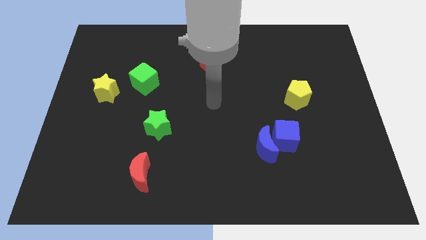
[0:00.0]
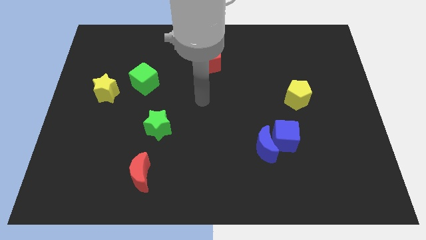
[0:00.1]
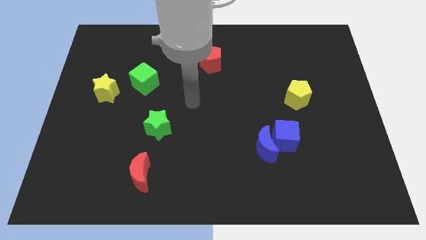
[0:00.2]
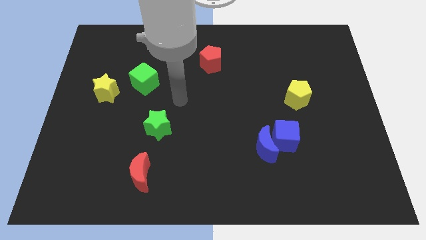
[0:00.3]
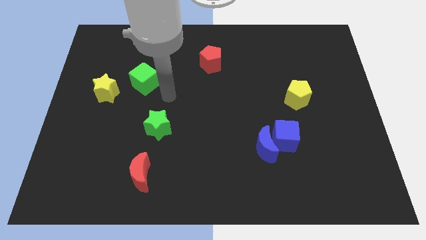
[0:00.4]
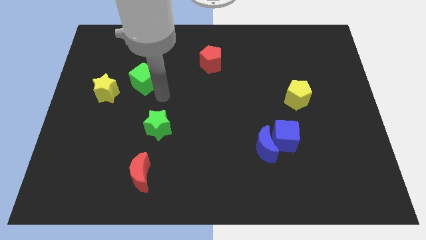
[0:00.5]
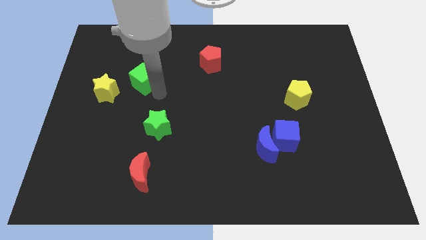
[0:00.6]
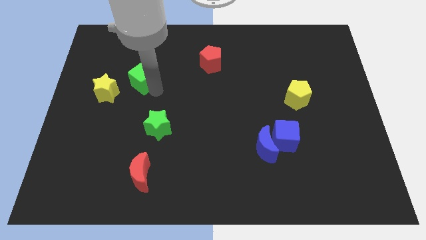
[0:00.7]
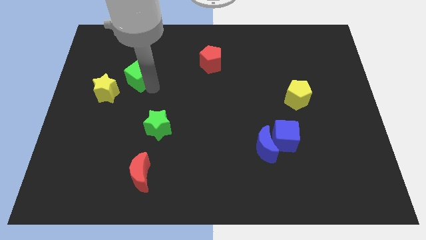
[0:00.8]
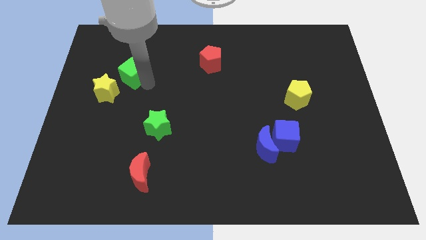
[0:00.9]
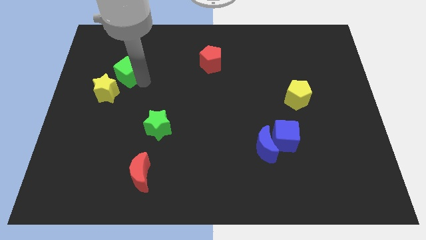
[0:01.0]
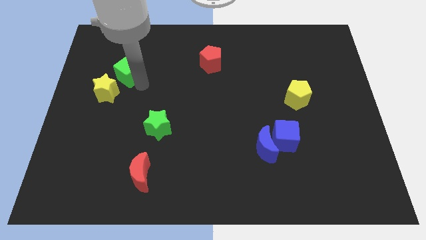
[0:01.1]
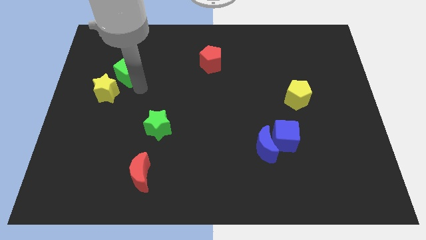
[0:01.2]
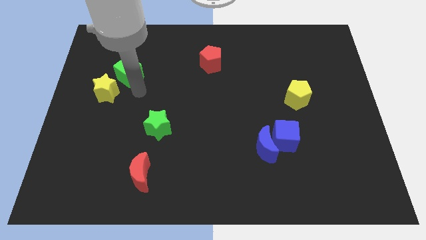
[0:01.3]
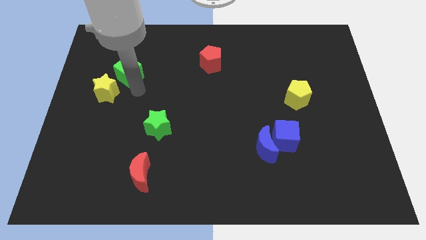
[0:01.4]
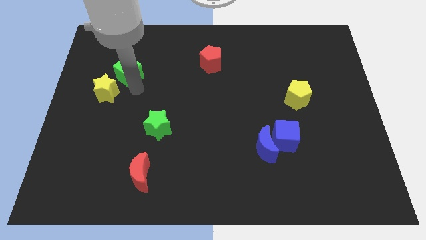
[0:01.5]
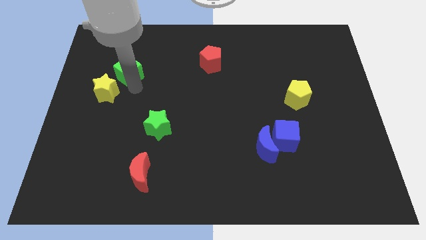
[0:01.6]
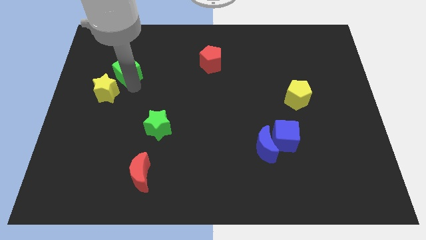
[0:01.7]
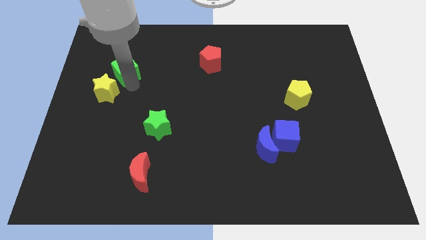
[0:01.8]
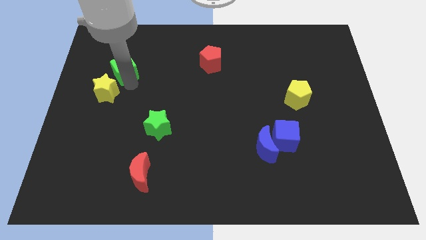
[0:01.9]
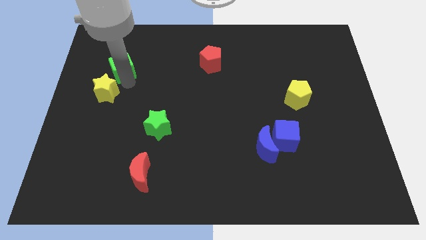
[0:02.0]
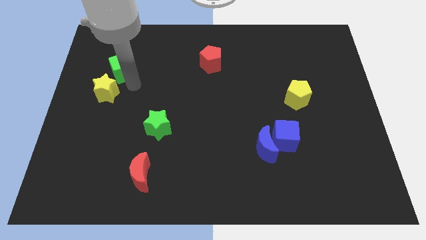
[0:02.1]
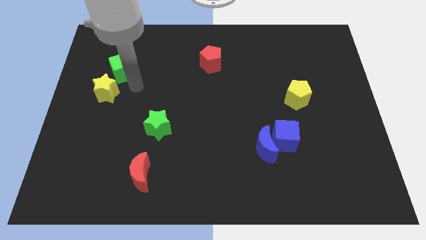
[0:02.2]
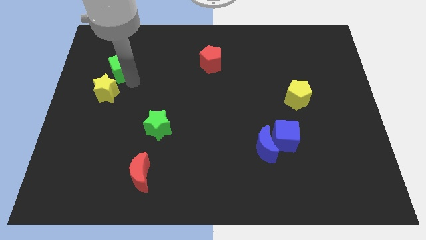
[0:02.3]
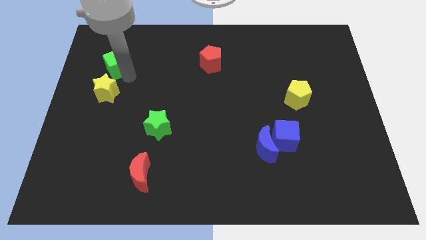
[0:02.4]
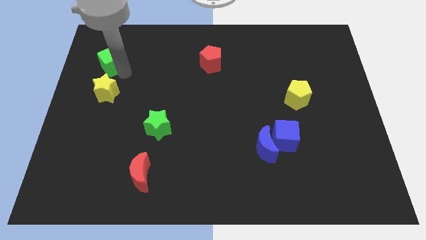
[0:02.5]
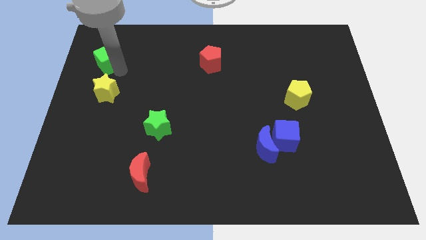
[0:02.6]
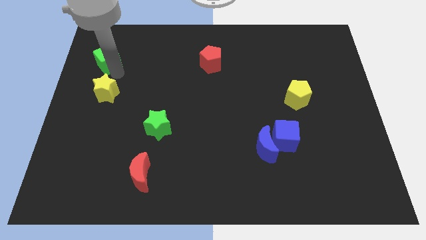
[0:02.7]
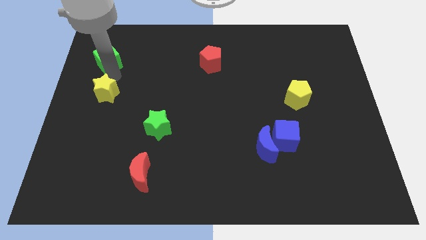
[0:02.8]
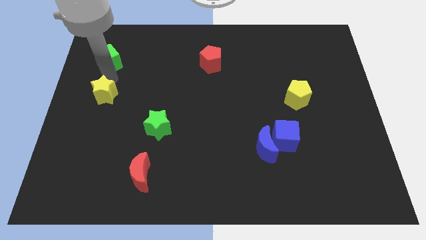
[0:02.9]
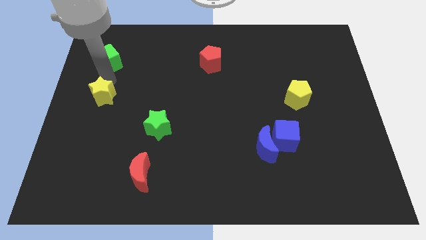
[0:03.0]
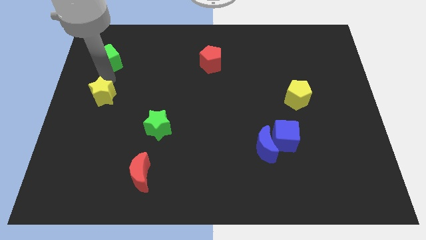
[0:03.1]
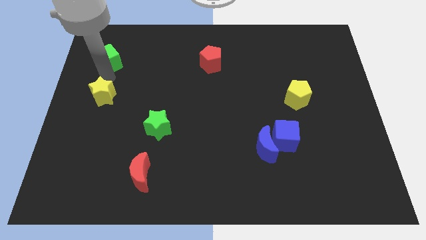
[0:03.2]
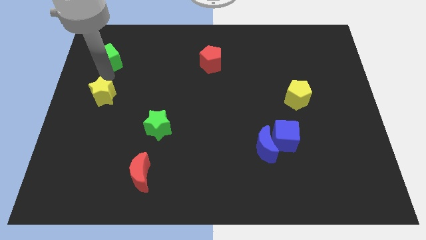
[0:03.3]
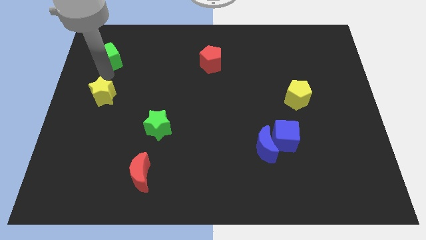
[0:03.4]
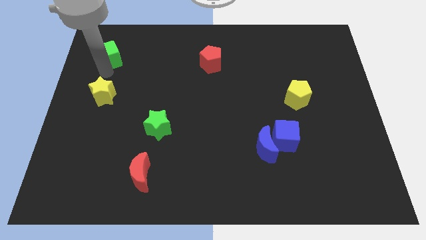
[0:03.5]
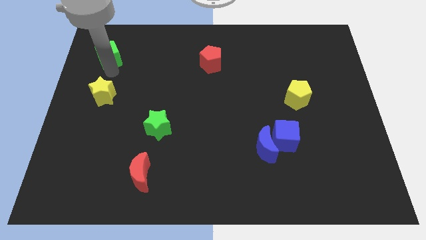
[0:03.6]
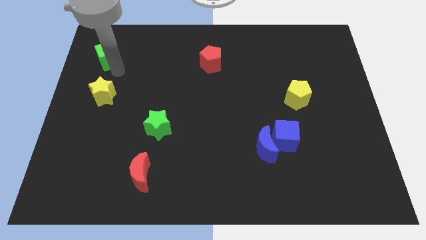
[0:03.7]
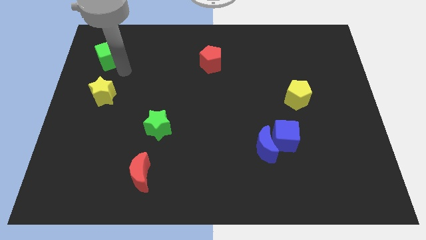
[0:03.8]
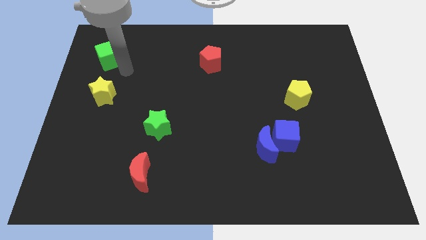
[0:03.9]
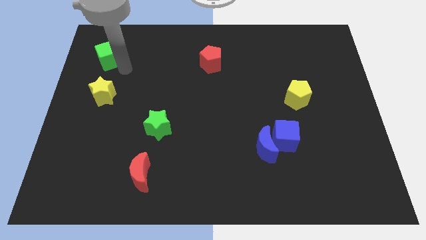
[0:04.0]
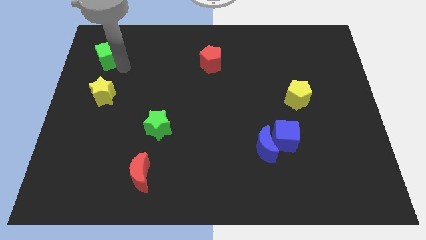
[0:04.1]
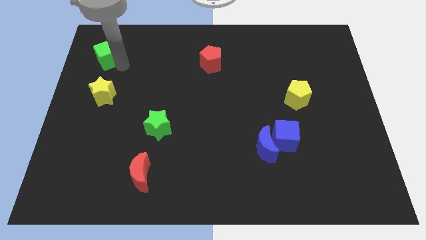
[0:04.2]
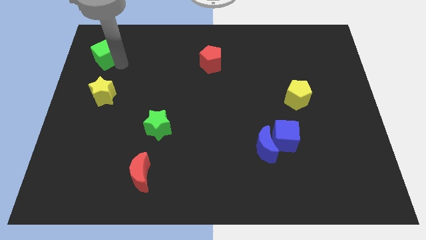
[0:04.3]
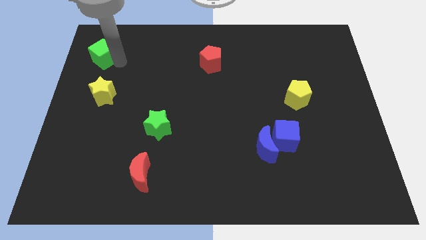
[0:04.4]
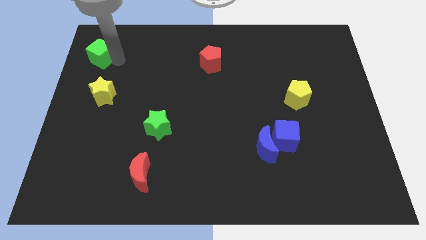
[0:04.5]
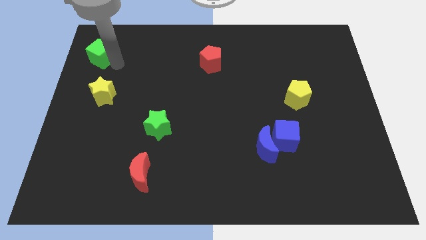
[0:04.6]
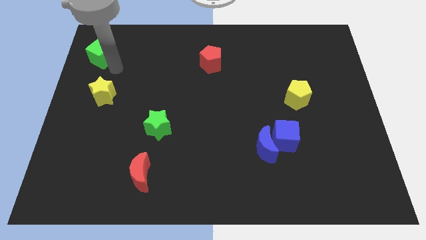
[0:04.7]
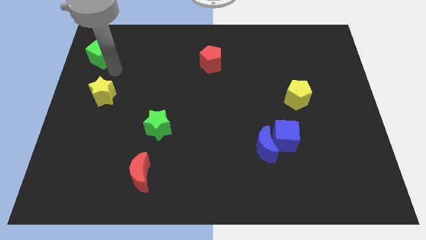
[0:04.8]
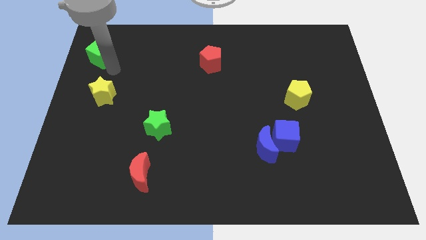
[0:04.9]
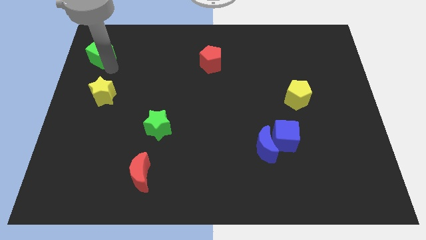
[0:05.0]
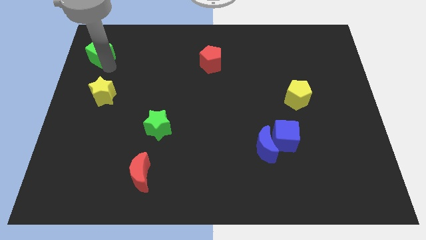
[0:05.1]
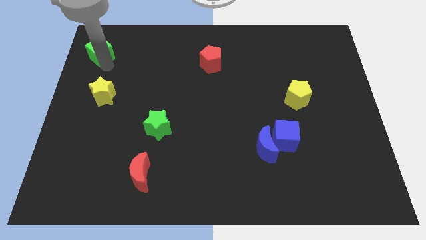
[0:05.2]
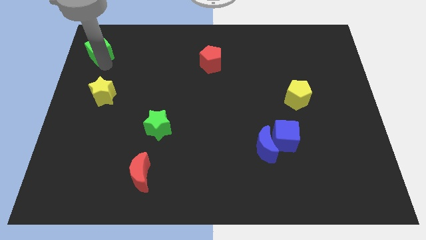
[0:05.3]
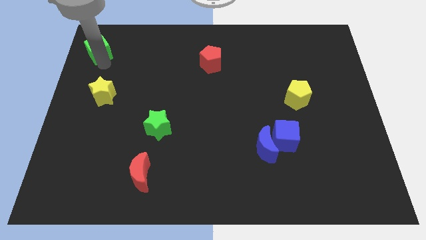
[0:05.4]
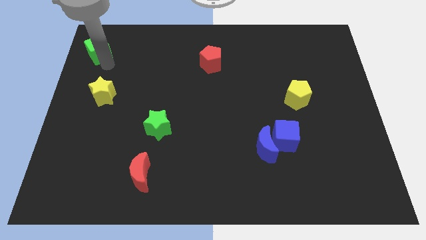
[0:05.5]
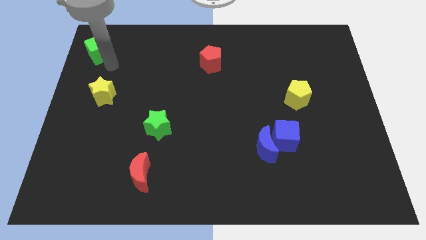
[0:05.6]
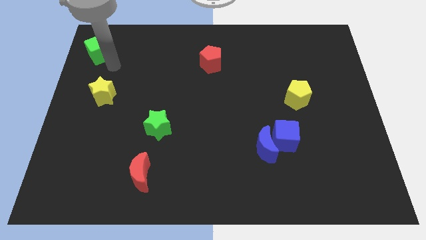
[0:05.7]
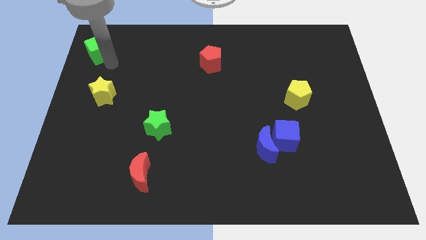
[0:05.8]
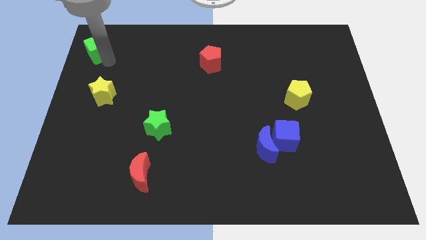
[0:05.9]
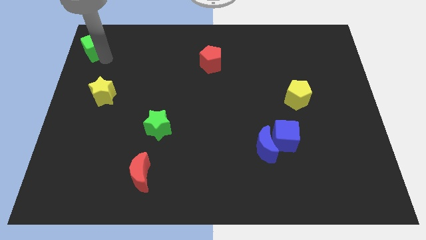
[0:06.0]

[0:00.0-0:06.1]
put the green cube to the top left
